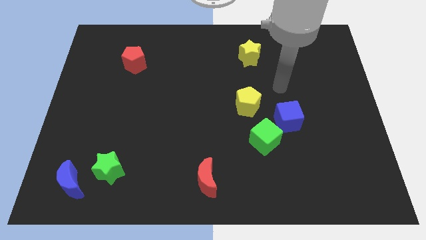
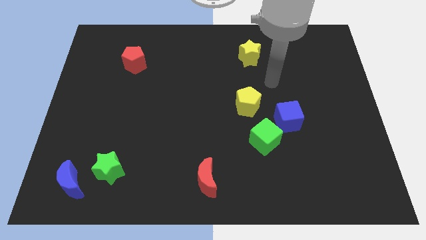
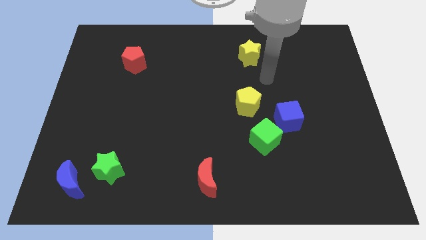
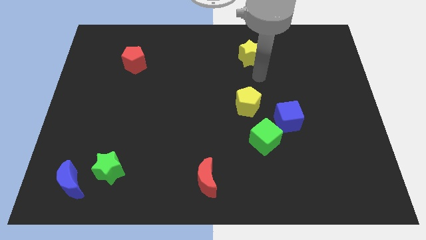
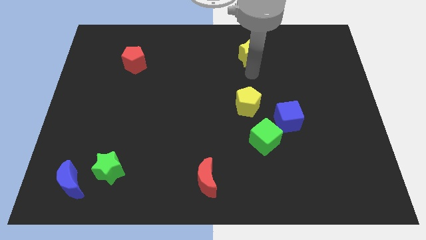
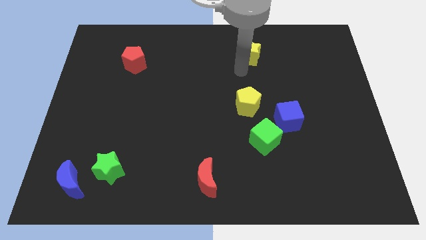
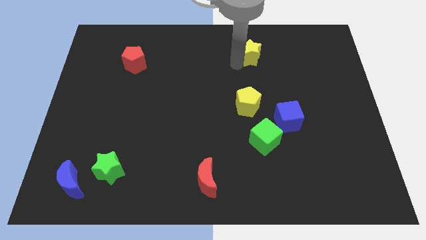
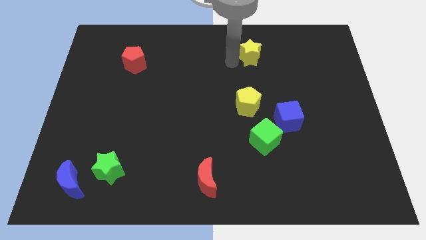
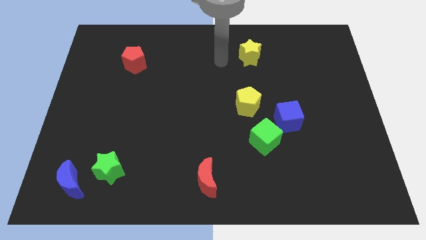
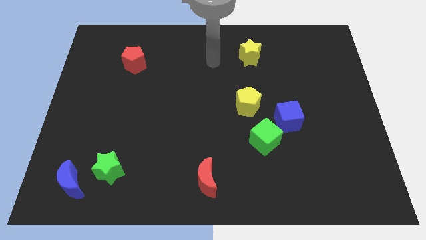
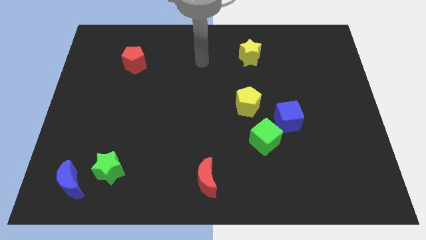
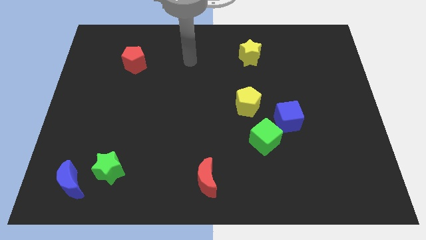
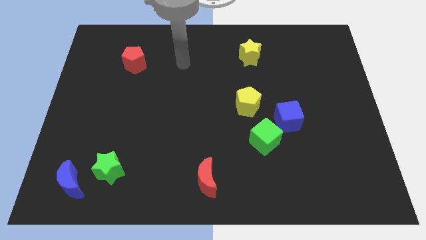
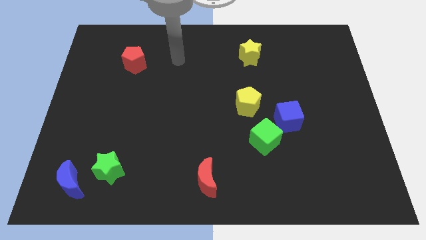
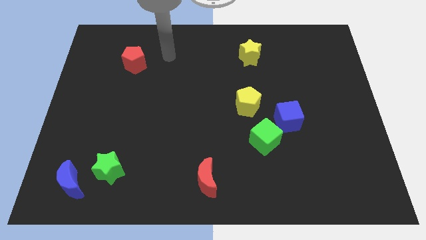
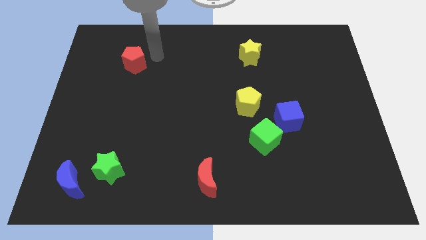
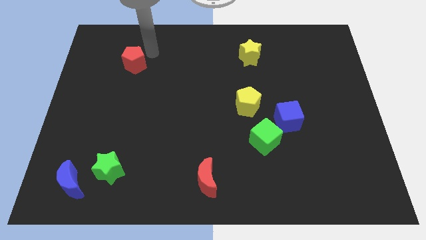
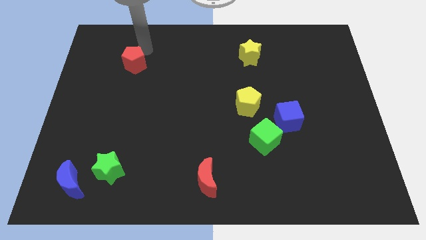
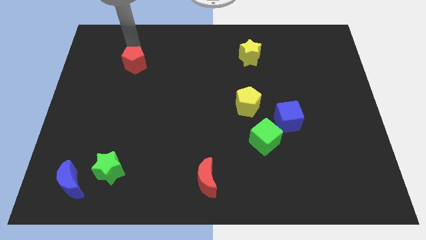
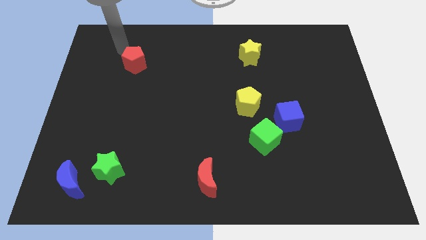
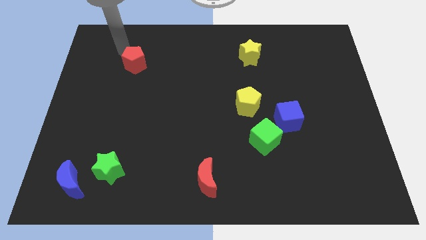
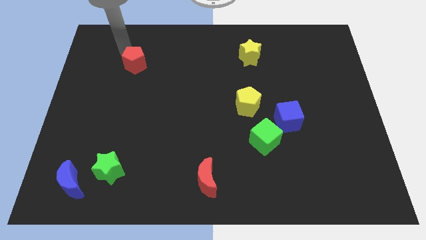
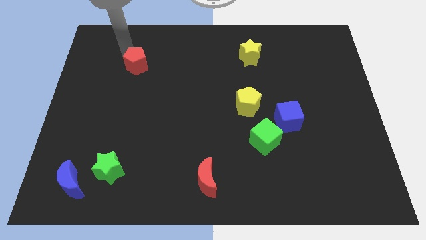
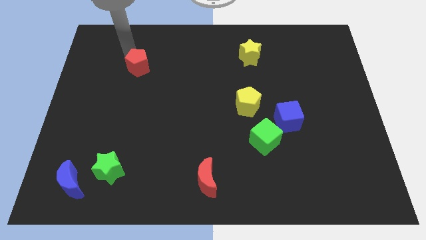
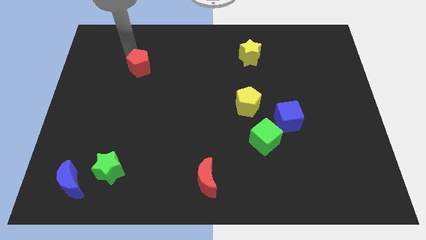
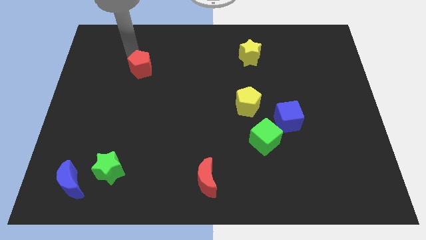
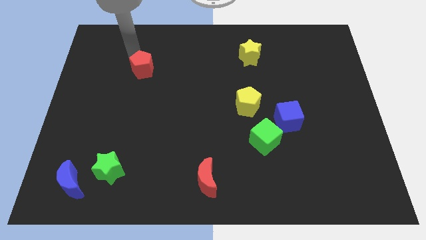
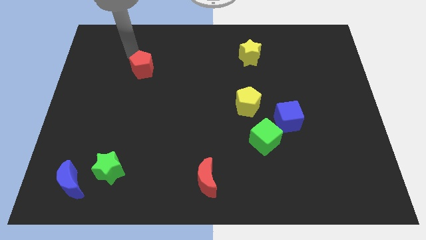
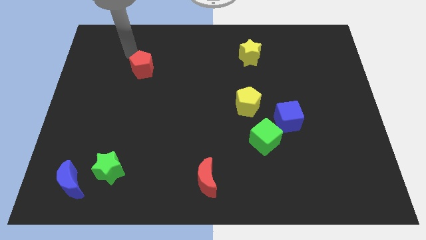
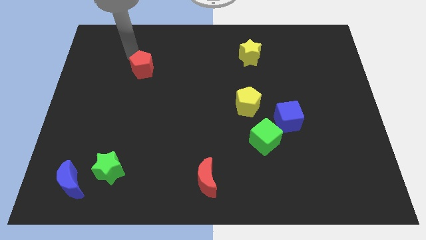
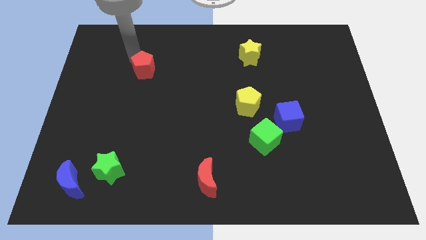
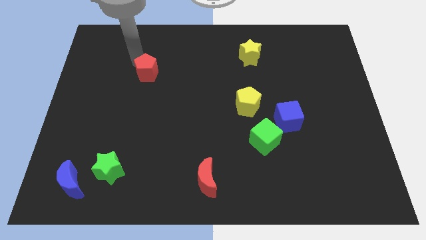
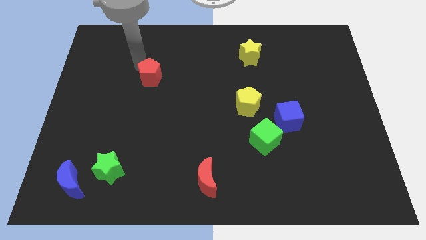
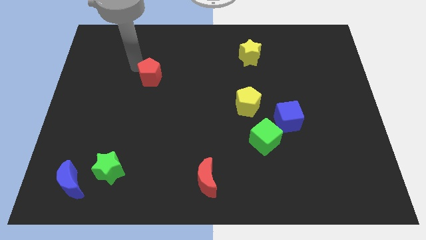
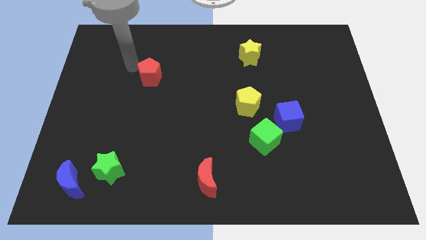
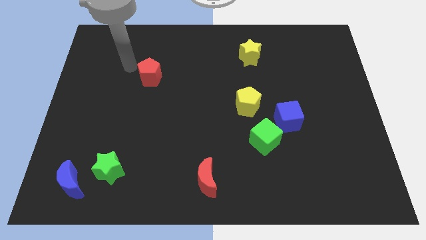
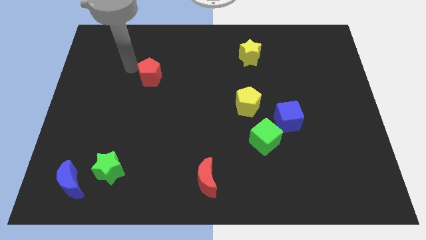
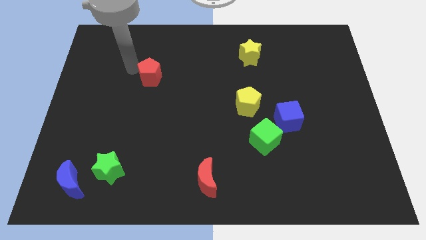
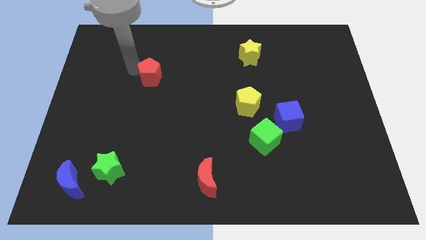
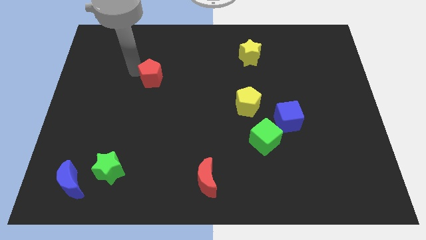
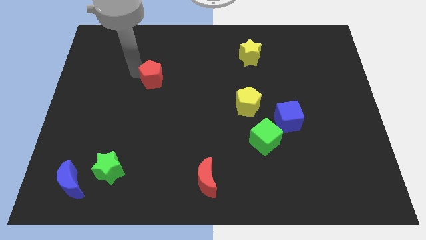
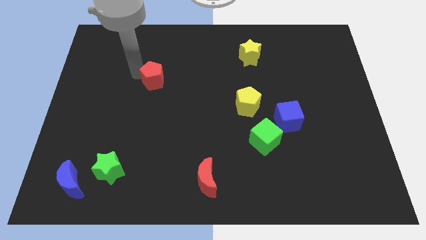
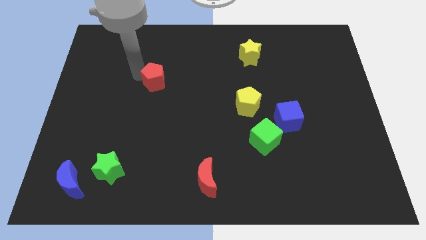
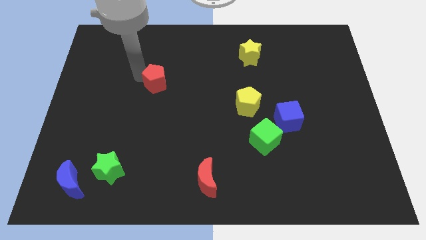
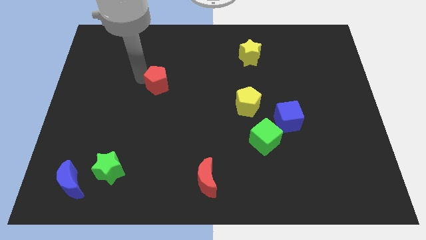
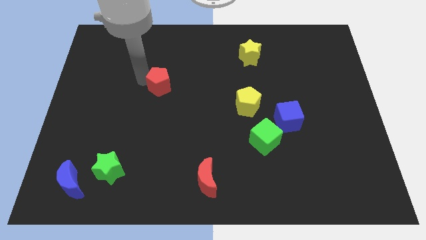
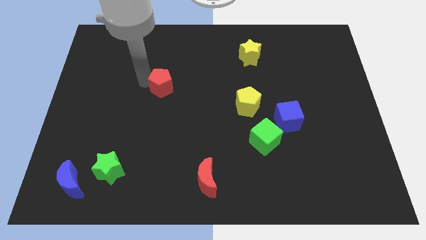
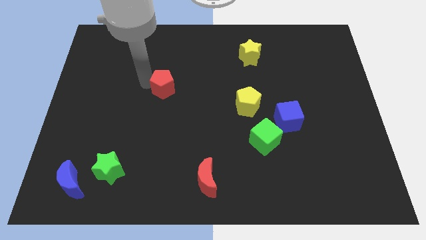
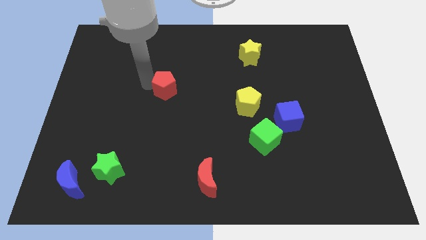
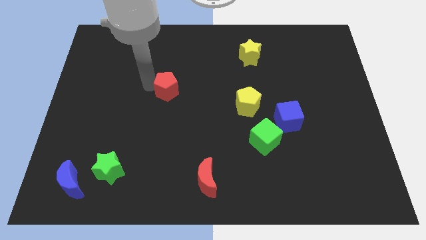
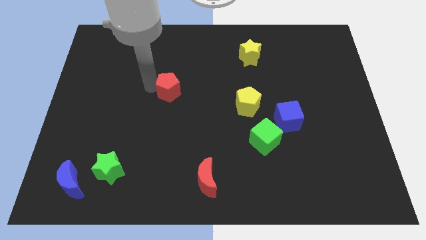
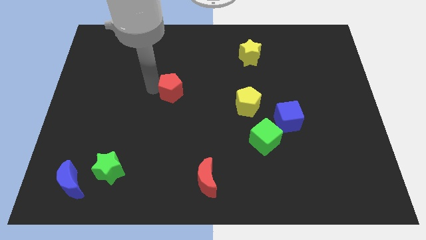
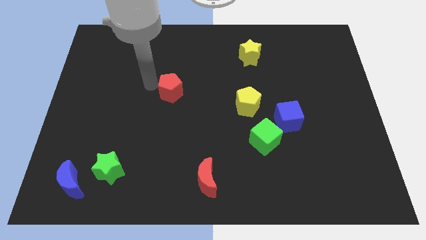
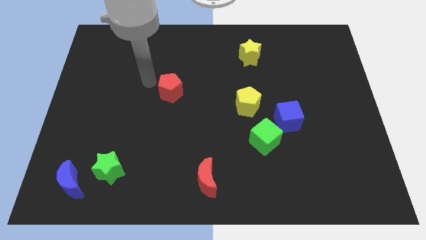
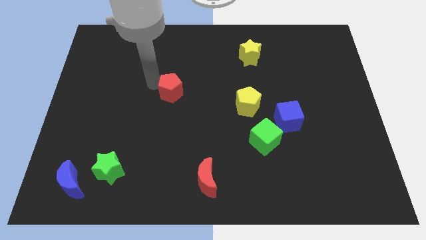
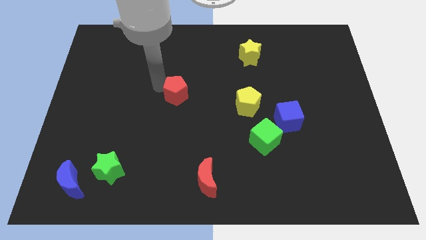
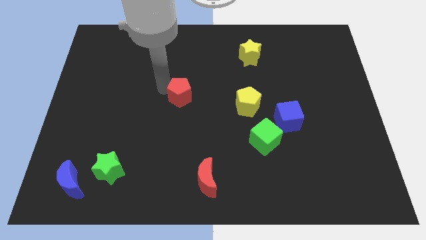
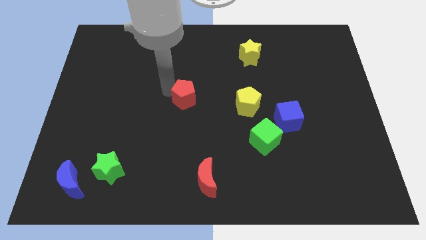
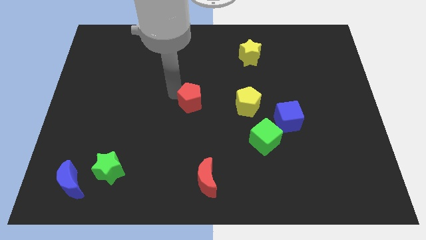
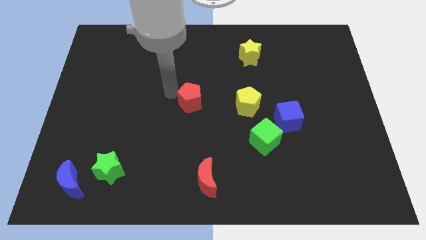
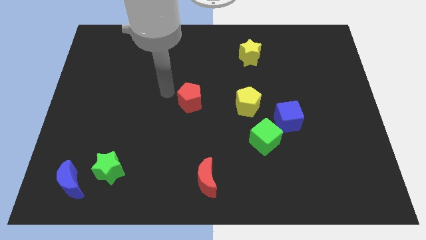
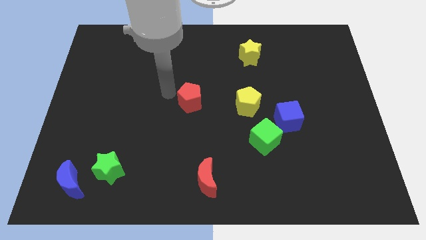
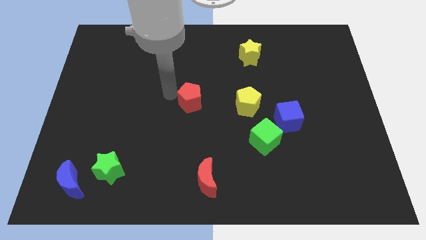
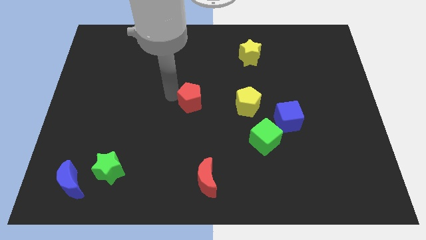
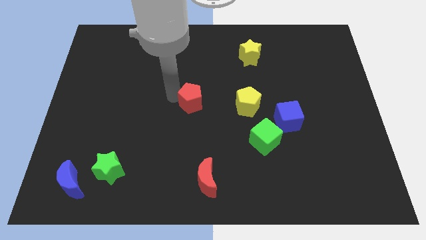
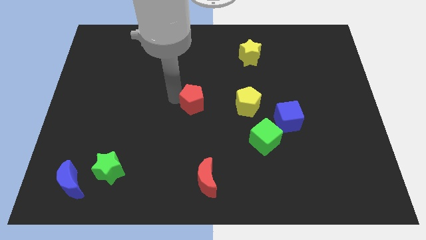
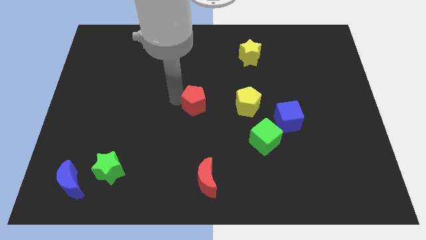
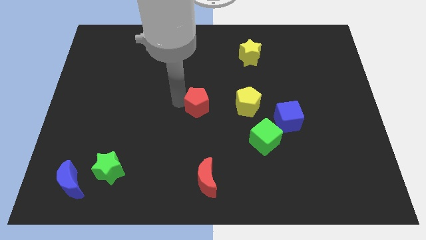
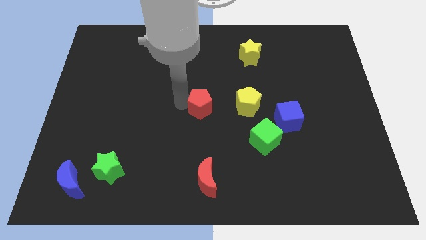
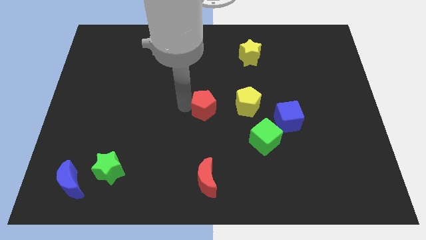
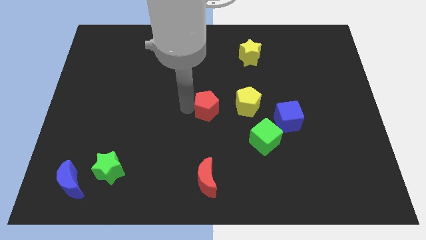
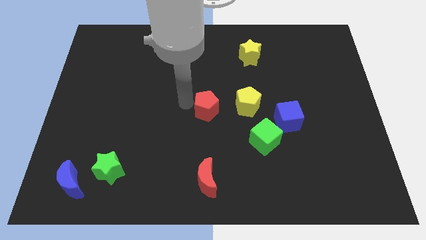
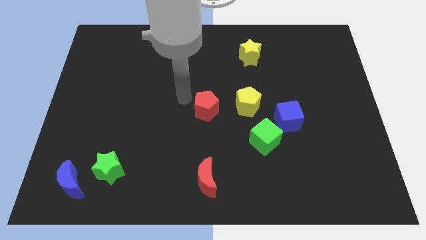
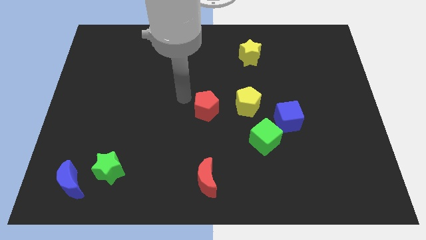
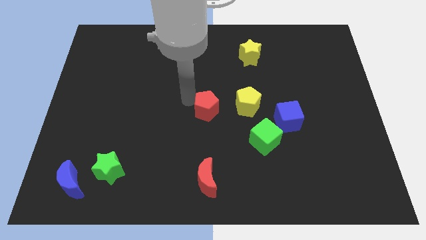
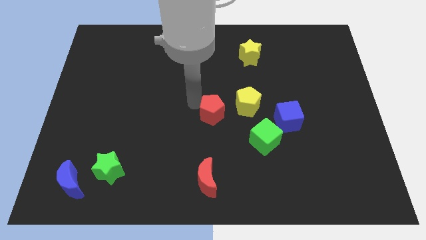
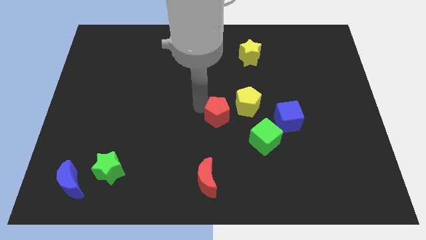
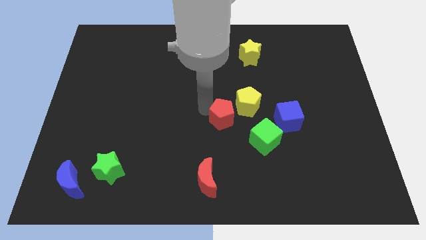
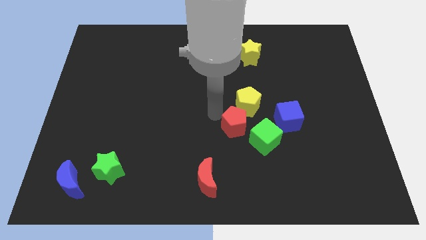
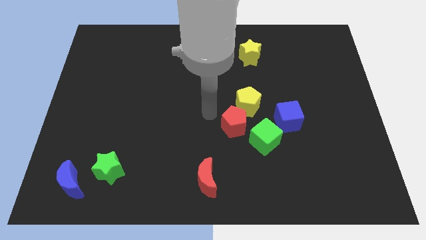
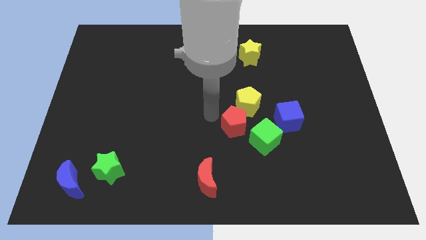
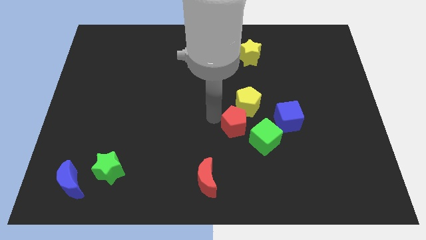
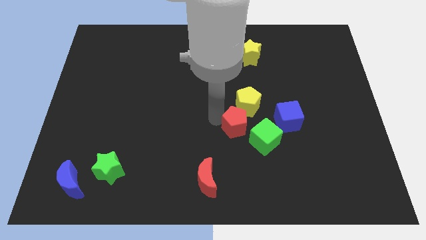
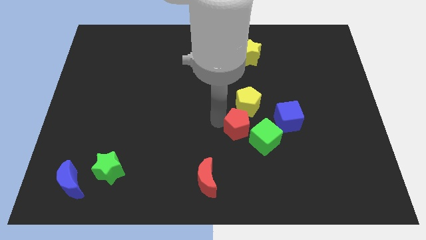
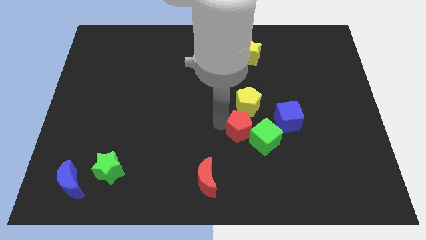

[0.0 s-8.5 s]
push the red pentagon next to the green cube
